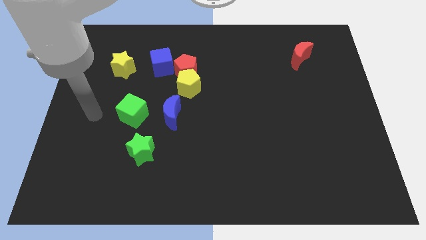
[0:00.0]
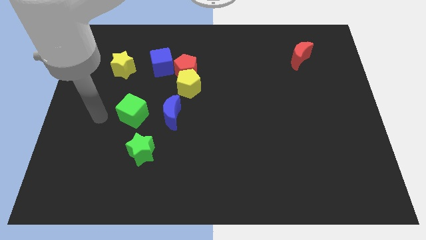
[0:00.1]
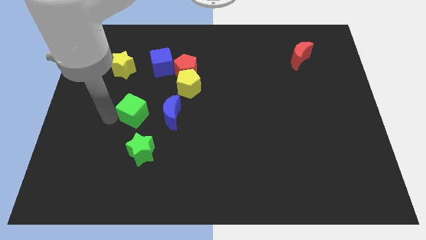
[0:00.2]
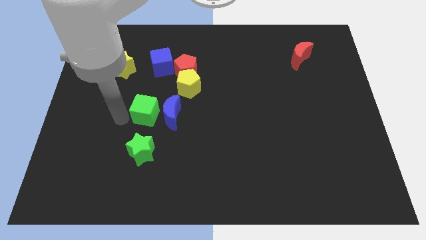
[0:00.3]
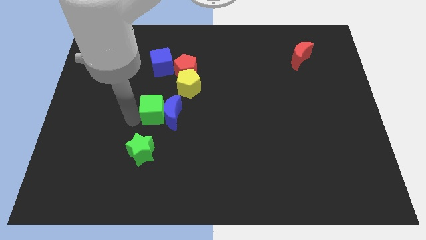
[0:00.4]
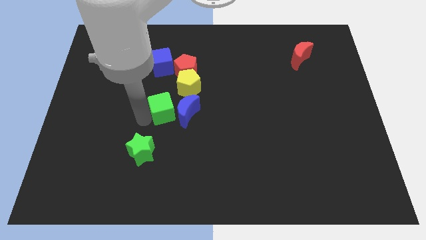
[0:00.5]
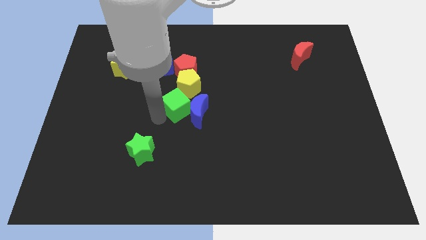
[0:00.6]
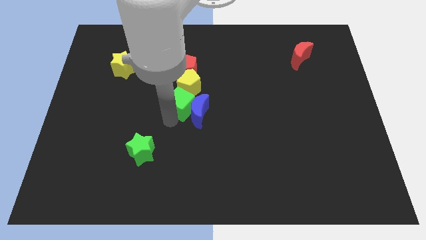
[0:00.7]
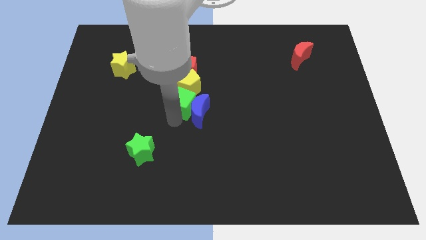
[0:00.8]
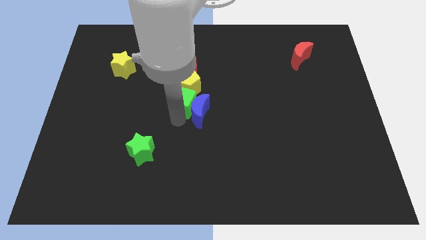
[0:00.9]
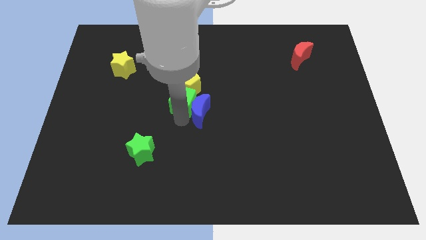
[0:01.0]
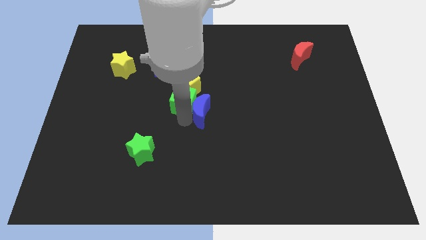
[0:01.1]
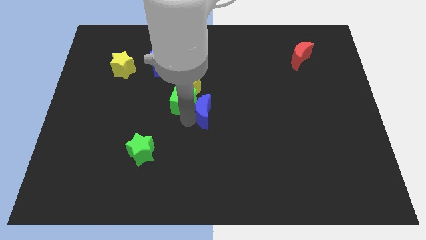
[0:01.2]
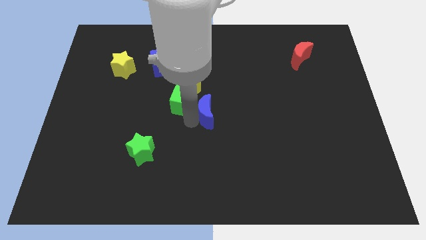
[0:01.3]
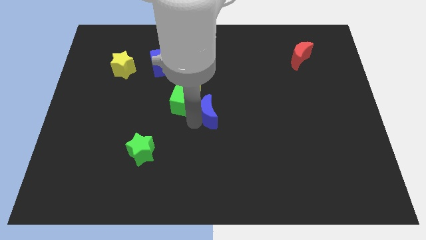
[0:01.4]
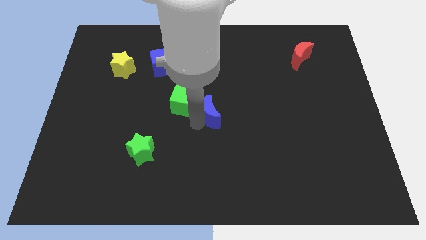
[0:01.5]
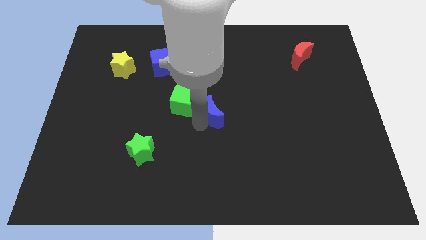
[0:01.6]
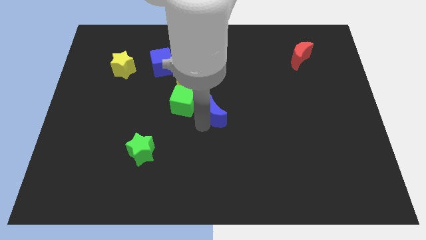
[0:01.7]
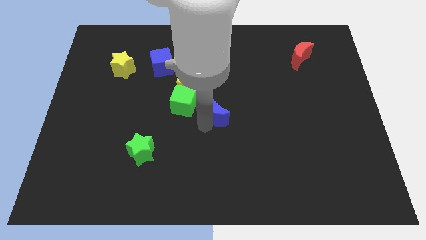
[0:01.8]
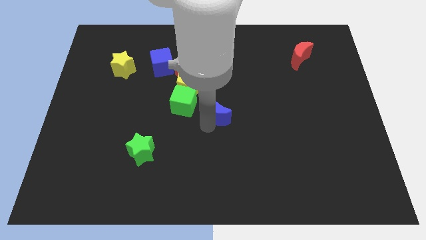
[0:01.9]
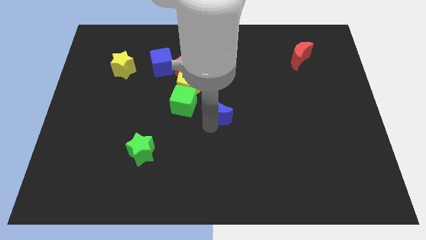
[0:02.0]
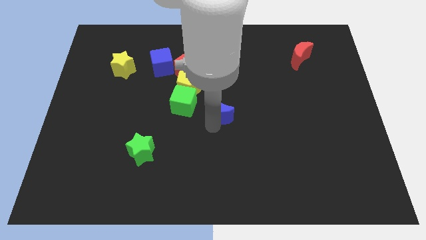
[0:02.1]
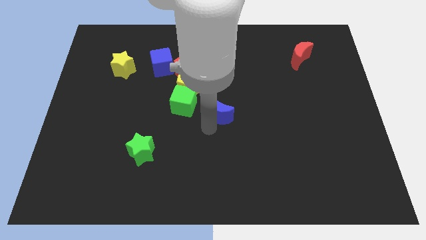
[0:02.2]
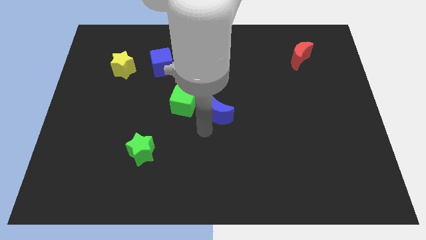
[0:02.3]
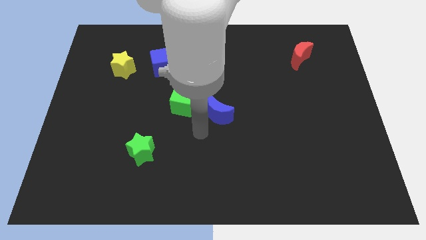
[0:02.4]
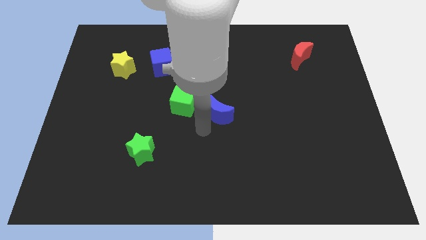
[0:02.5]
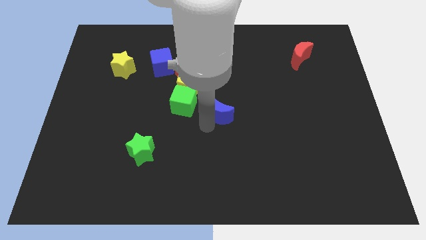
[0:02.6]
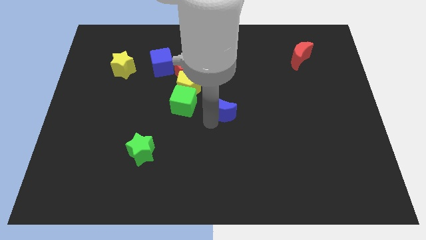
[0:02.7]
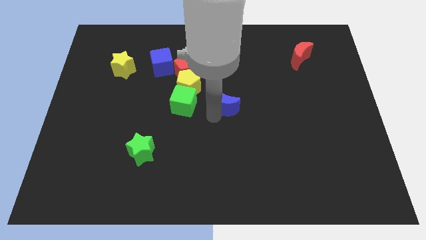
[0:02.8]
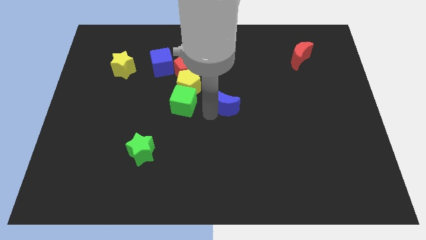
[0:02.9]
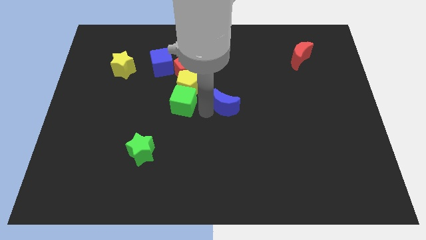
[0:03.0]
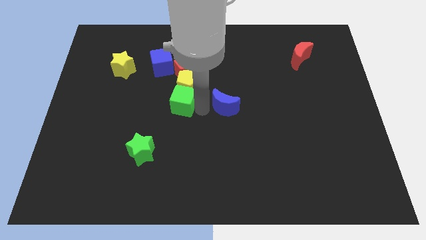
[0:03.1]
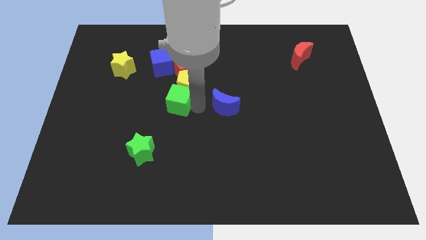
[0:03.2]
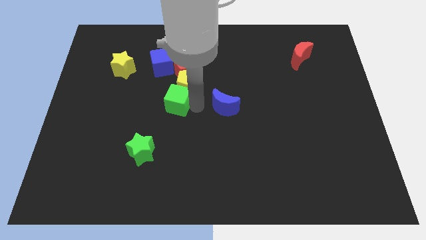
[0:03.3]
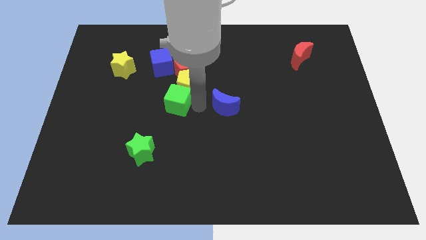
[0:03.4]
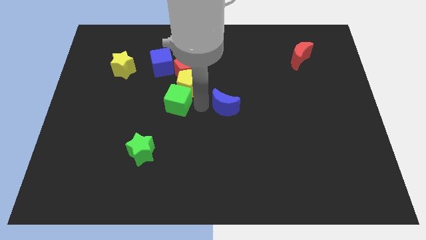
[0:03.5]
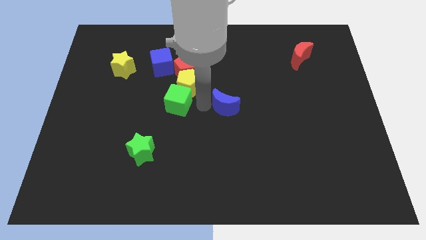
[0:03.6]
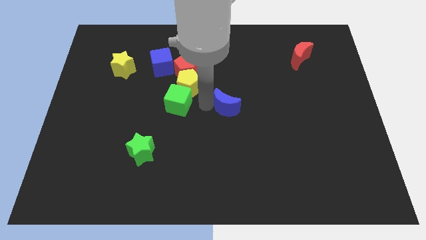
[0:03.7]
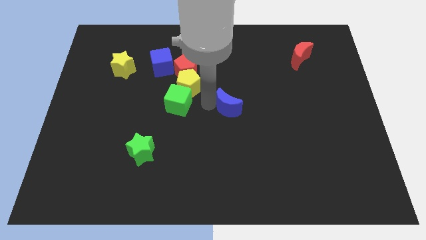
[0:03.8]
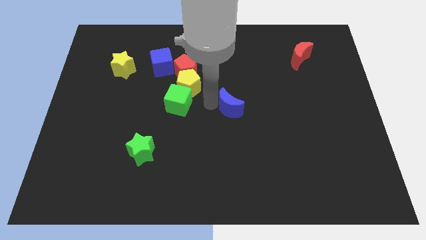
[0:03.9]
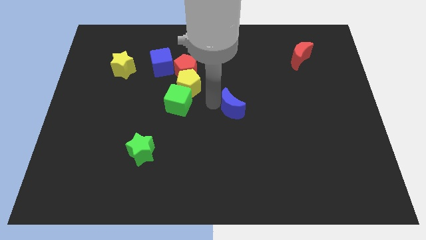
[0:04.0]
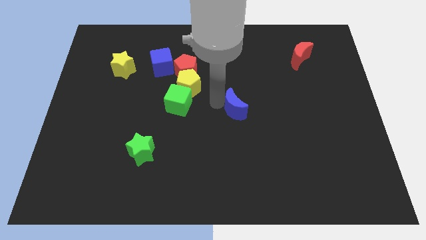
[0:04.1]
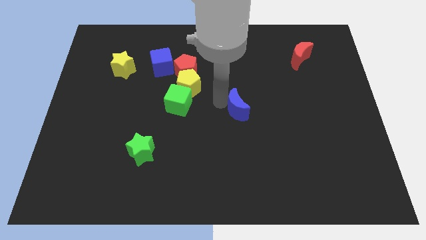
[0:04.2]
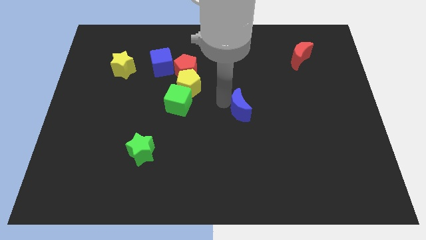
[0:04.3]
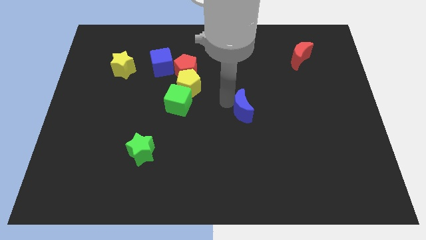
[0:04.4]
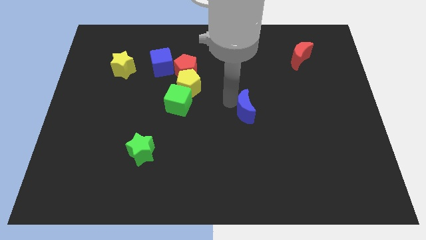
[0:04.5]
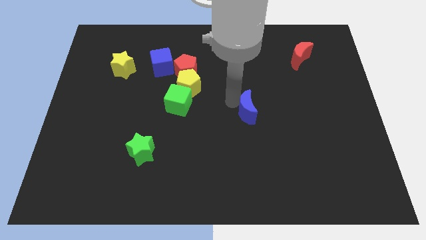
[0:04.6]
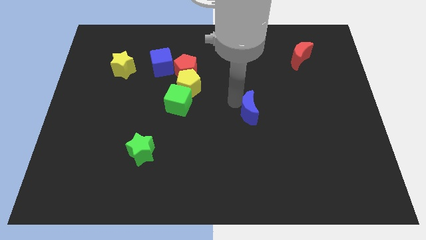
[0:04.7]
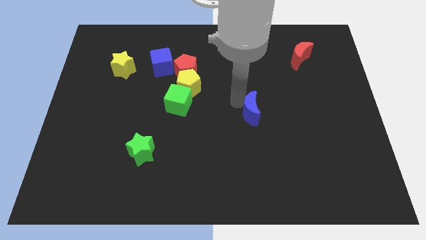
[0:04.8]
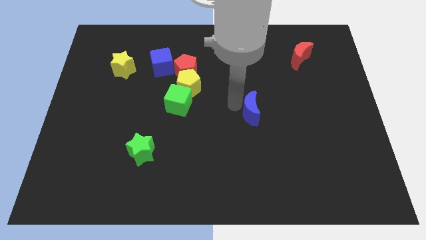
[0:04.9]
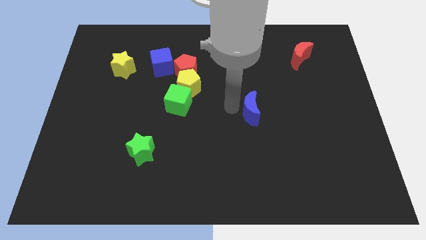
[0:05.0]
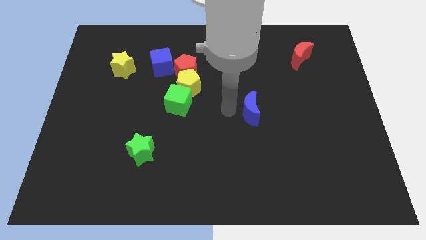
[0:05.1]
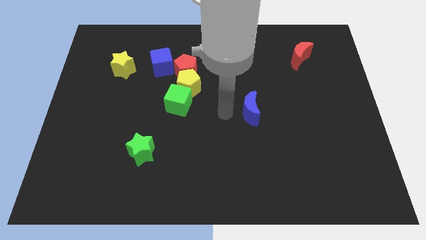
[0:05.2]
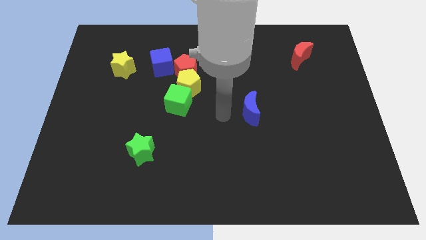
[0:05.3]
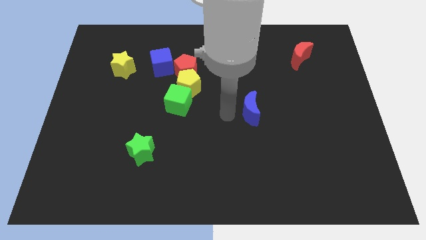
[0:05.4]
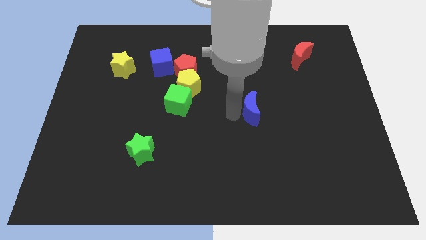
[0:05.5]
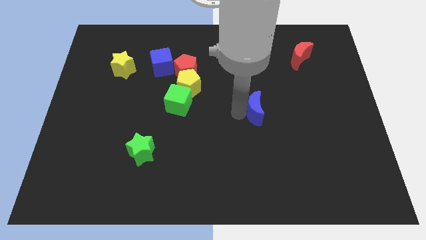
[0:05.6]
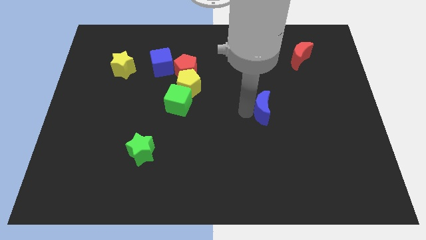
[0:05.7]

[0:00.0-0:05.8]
slide the blue moon to the right

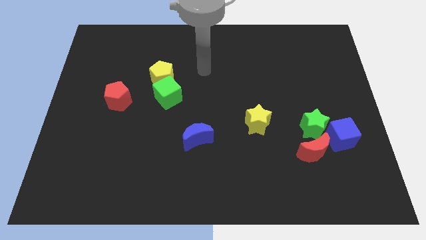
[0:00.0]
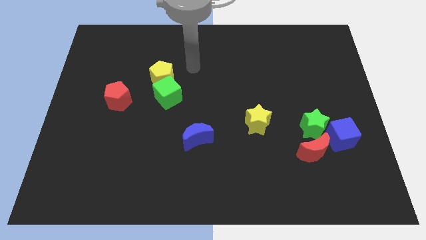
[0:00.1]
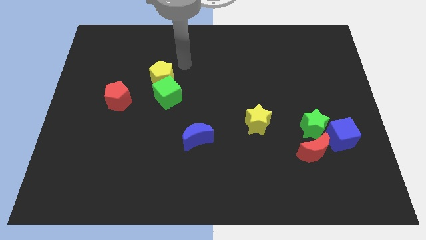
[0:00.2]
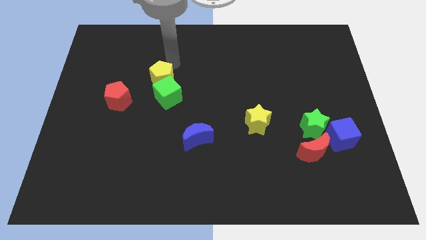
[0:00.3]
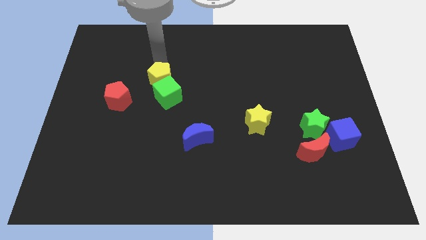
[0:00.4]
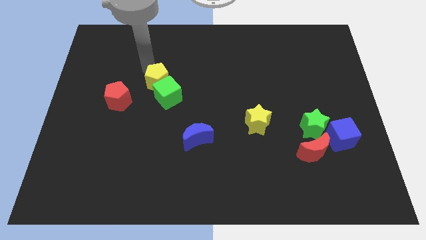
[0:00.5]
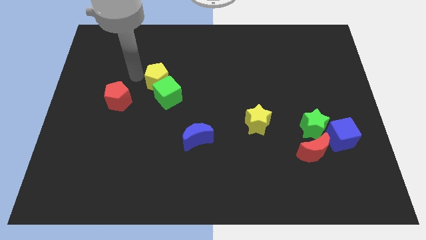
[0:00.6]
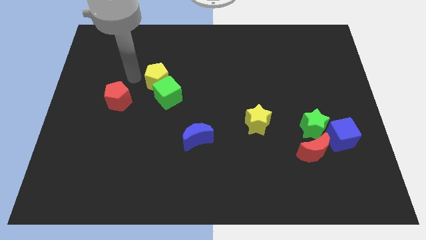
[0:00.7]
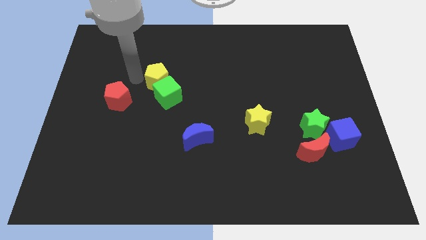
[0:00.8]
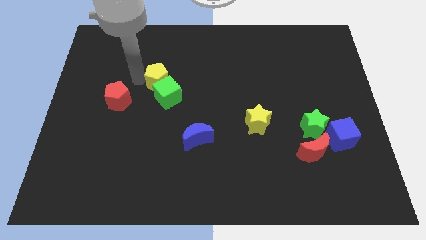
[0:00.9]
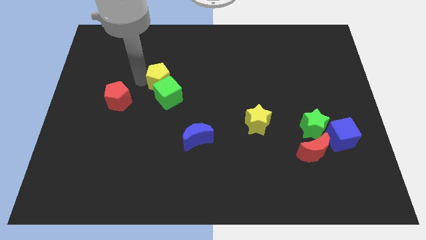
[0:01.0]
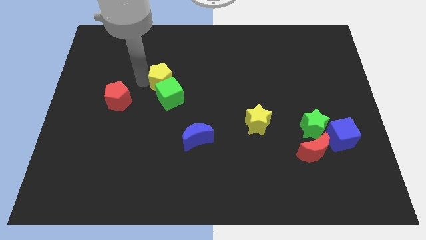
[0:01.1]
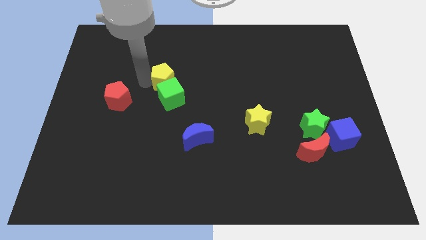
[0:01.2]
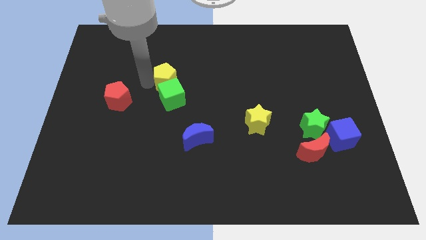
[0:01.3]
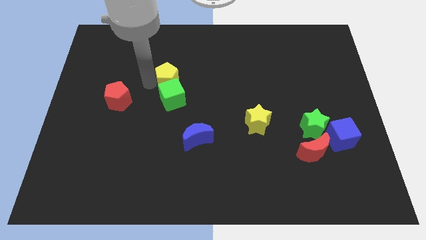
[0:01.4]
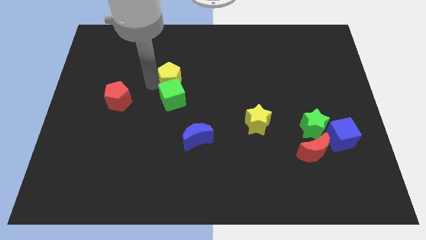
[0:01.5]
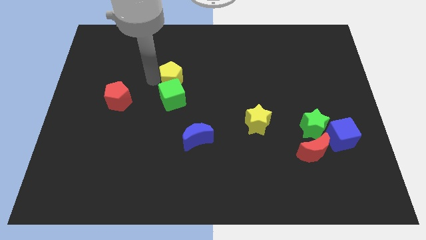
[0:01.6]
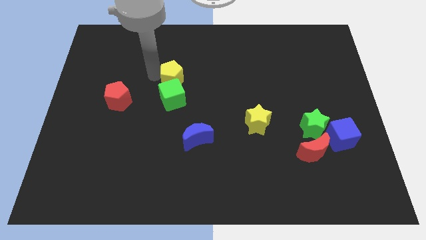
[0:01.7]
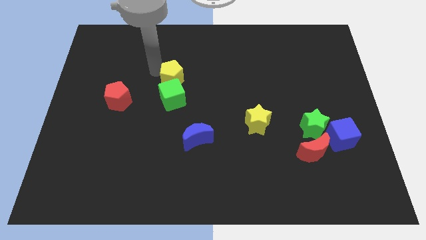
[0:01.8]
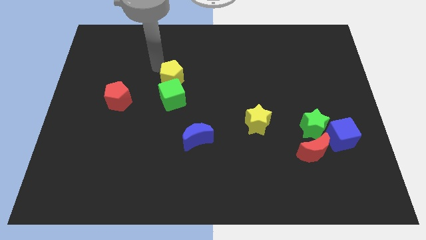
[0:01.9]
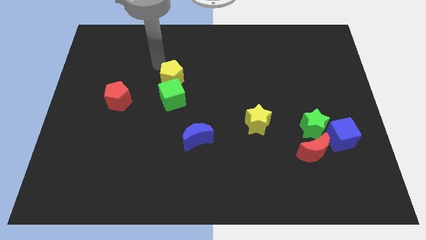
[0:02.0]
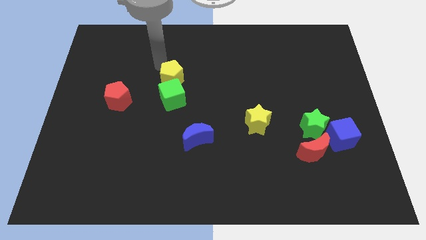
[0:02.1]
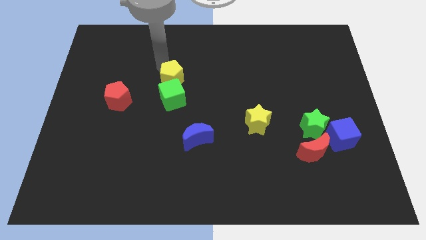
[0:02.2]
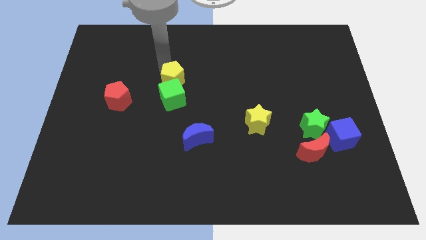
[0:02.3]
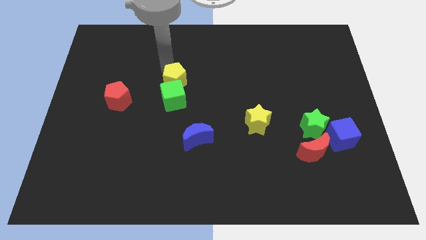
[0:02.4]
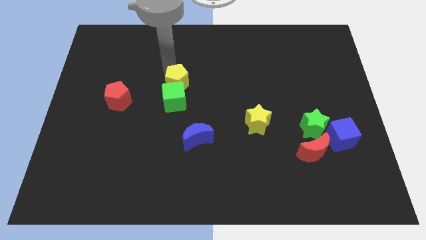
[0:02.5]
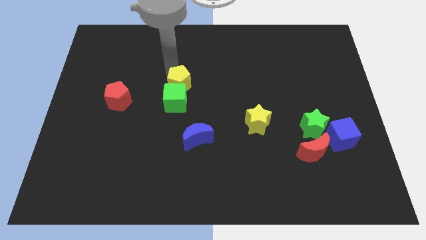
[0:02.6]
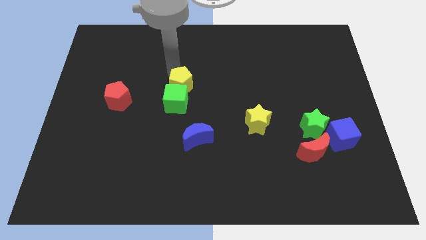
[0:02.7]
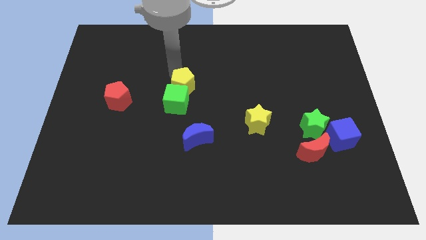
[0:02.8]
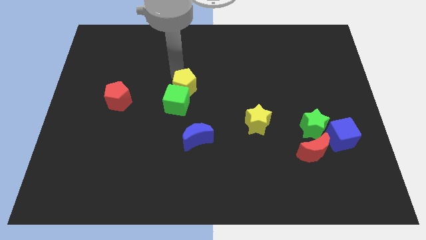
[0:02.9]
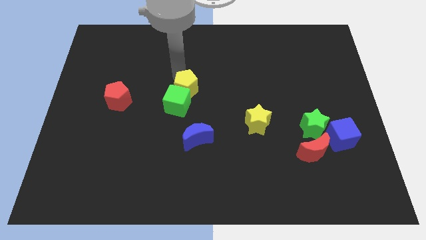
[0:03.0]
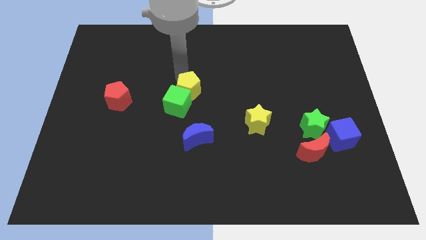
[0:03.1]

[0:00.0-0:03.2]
move the yellow pentagon downwards and then to the right a little
